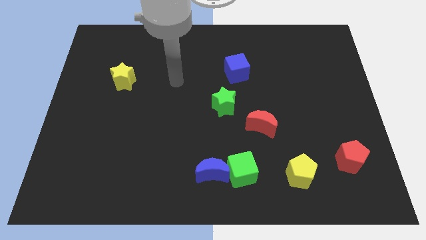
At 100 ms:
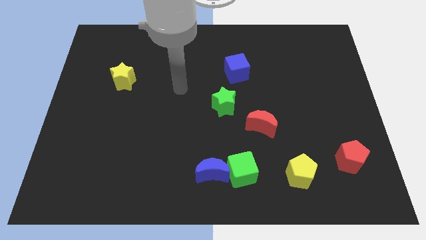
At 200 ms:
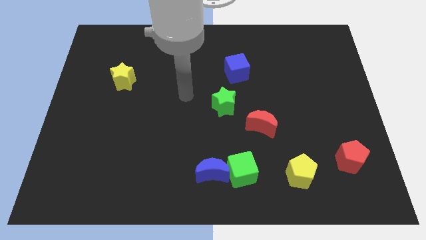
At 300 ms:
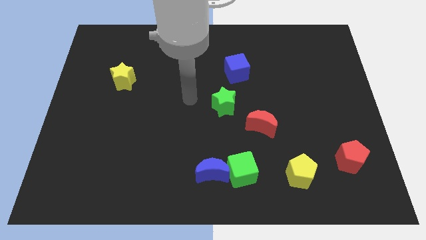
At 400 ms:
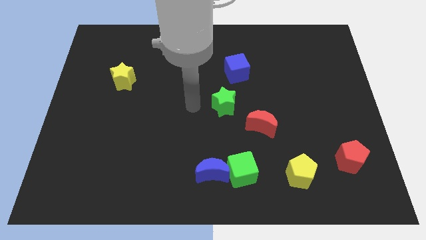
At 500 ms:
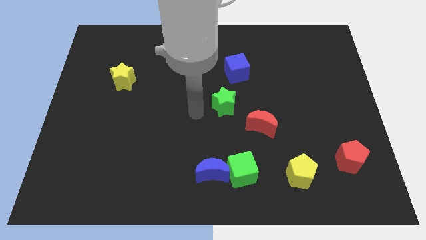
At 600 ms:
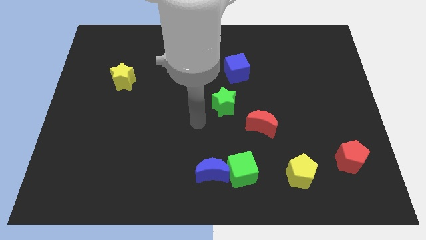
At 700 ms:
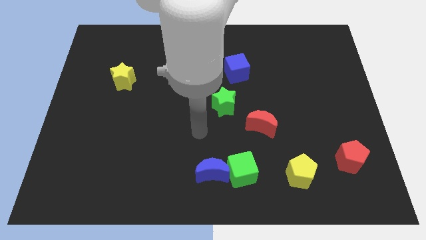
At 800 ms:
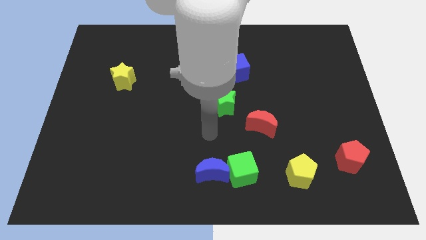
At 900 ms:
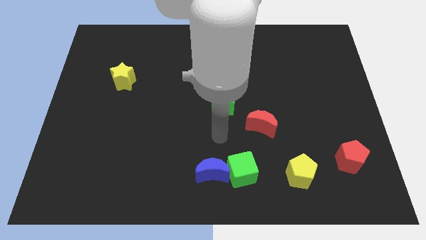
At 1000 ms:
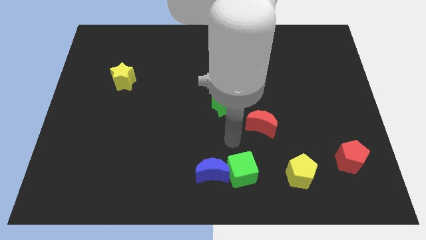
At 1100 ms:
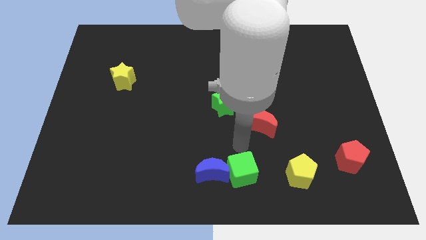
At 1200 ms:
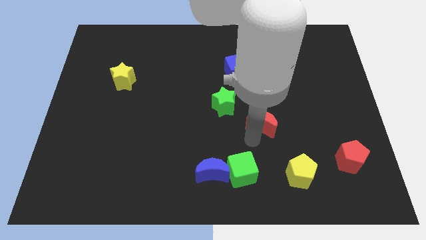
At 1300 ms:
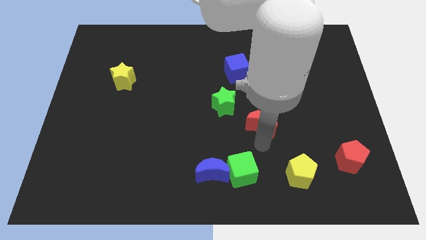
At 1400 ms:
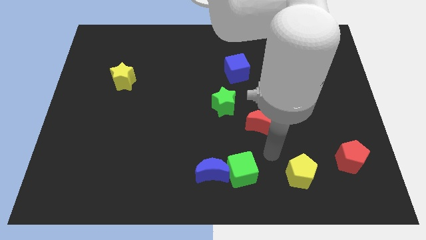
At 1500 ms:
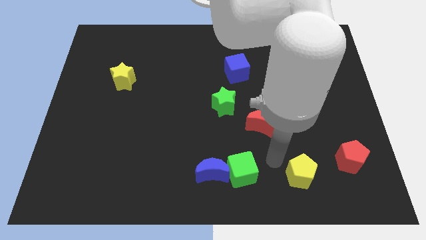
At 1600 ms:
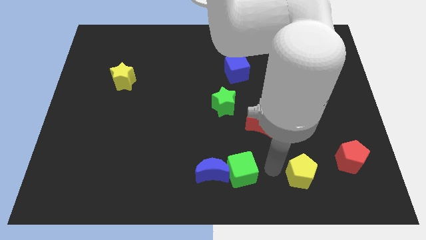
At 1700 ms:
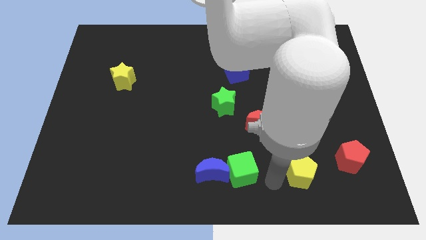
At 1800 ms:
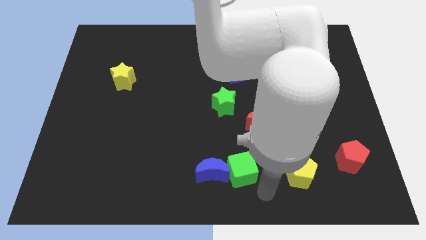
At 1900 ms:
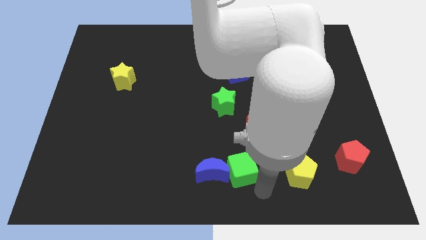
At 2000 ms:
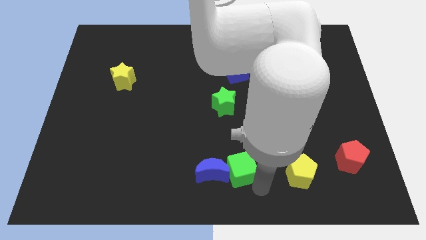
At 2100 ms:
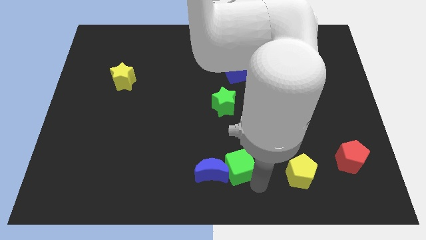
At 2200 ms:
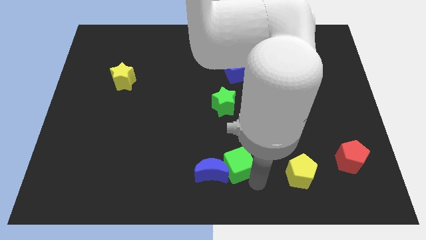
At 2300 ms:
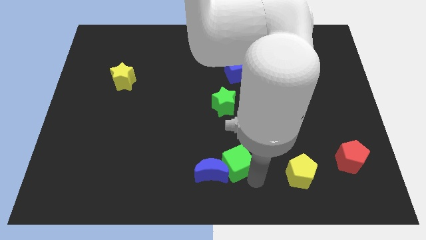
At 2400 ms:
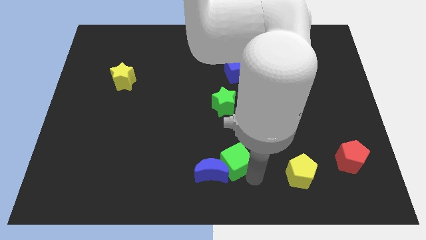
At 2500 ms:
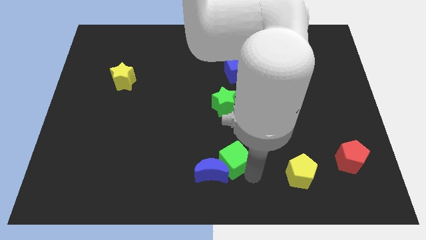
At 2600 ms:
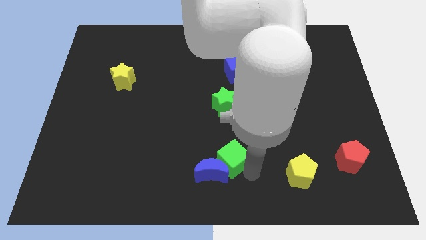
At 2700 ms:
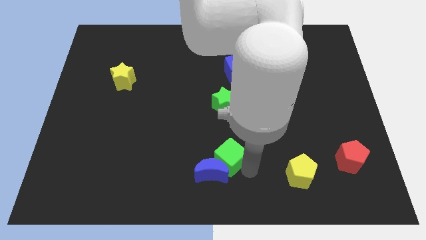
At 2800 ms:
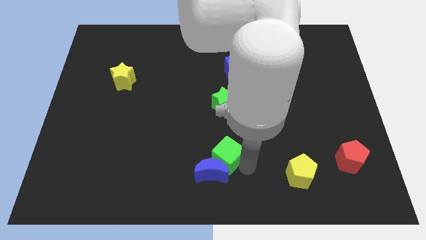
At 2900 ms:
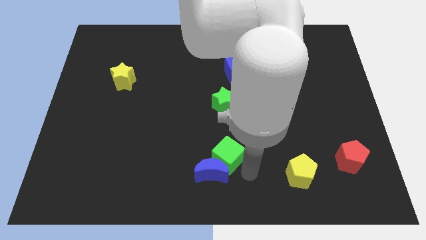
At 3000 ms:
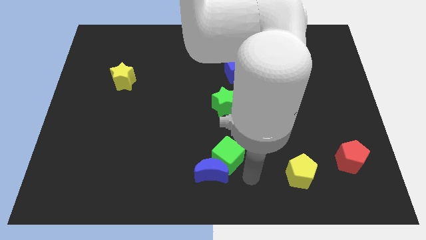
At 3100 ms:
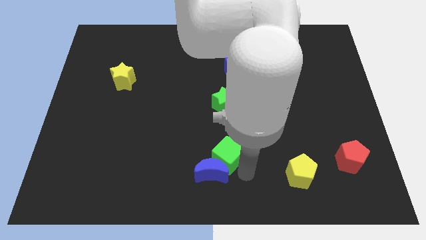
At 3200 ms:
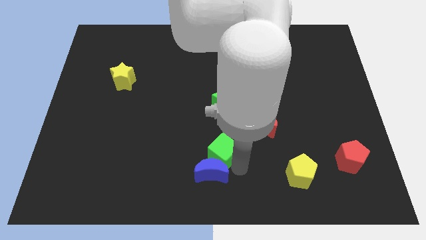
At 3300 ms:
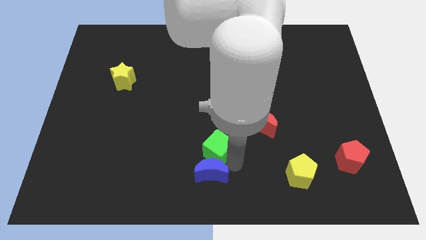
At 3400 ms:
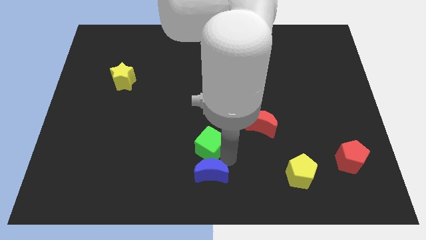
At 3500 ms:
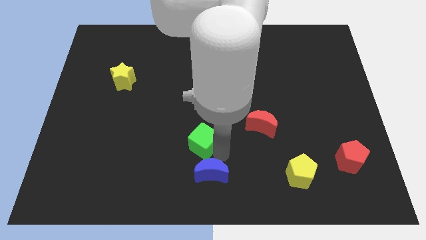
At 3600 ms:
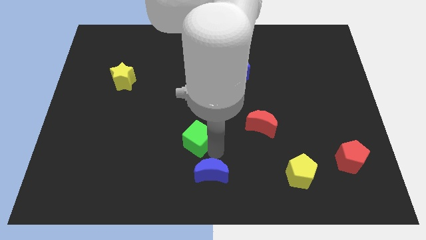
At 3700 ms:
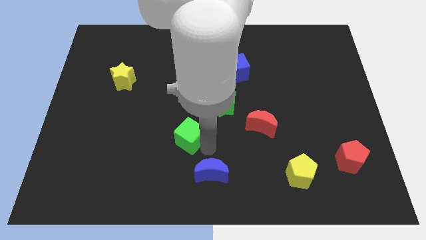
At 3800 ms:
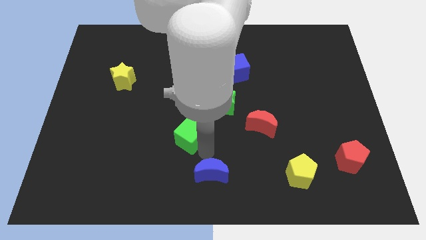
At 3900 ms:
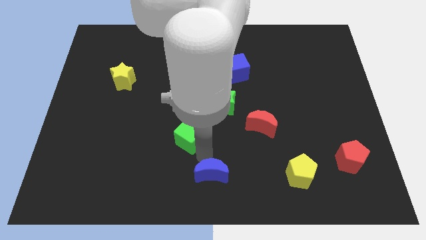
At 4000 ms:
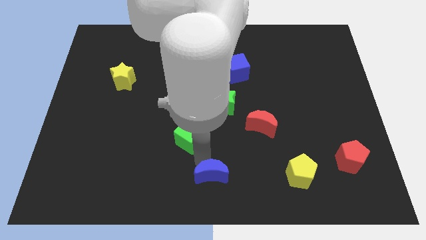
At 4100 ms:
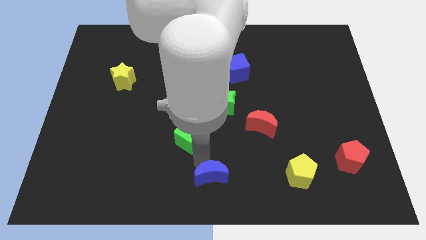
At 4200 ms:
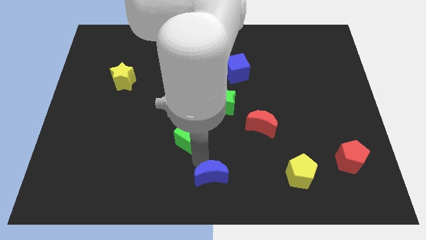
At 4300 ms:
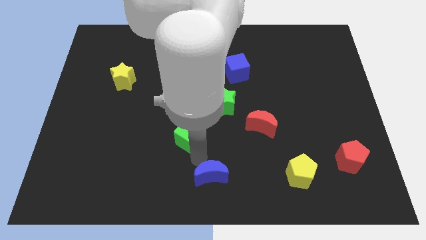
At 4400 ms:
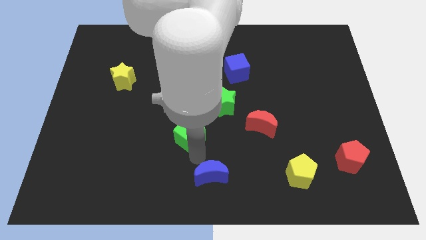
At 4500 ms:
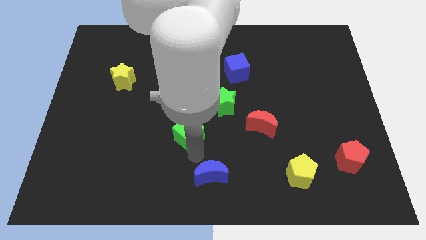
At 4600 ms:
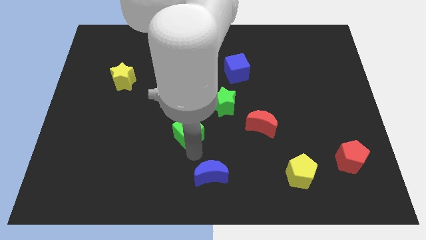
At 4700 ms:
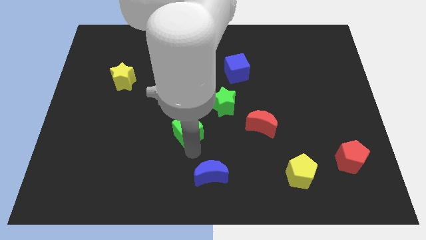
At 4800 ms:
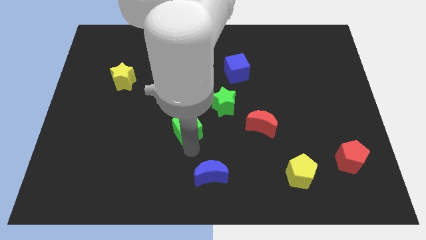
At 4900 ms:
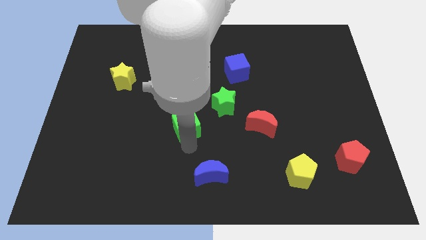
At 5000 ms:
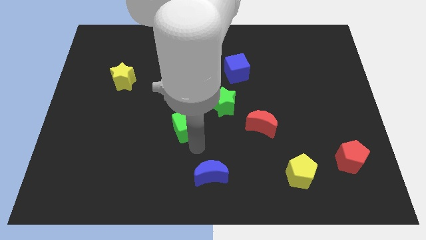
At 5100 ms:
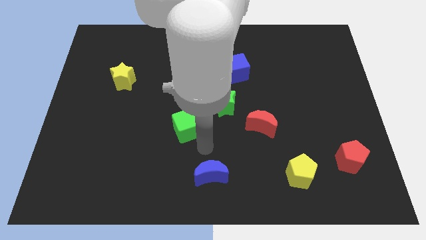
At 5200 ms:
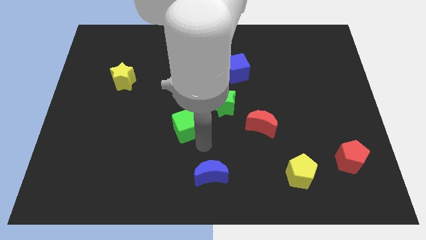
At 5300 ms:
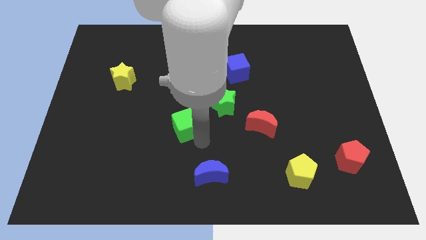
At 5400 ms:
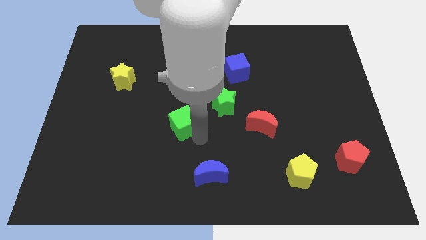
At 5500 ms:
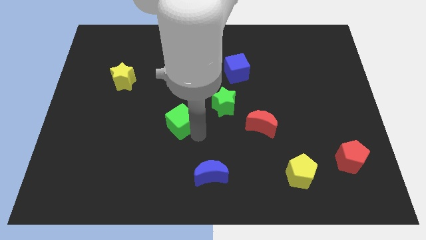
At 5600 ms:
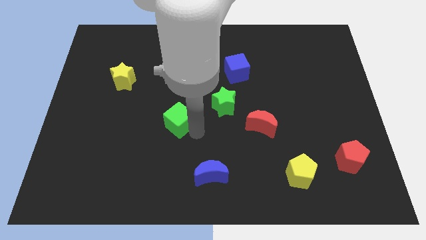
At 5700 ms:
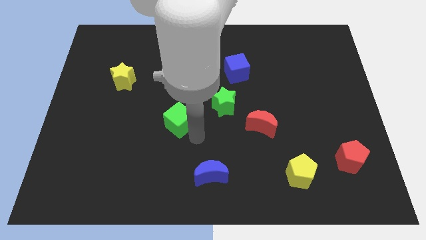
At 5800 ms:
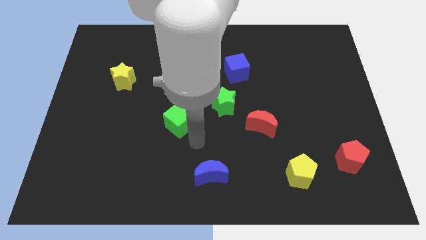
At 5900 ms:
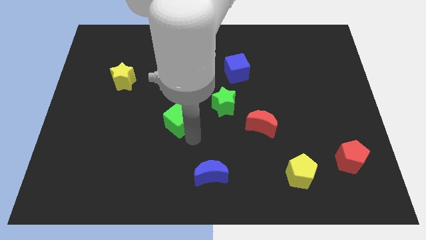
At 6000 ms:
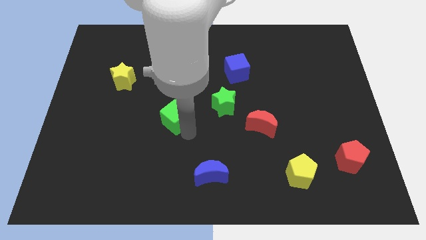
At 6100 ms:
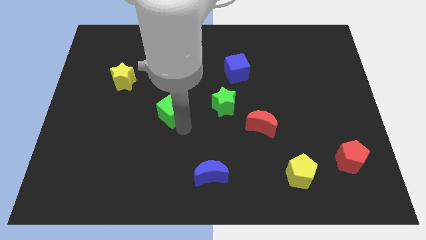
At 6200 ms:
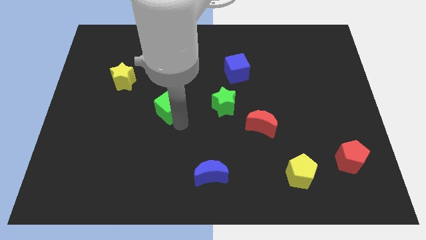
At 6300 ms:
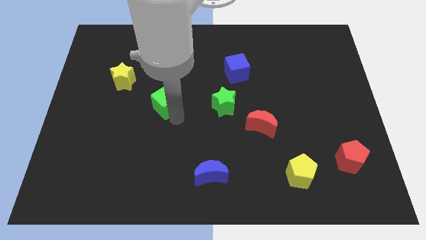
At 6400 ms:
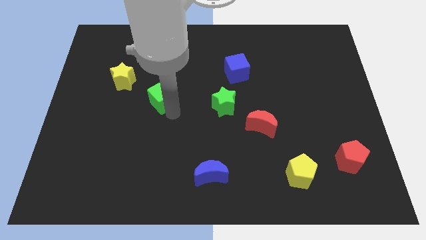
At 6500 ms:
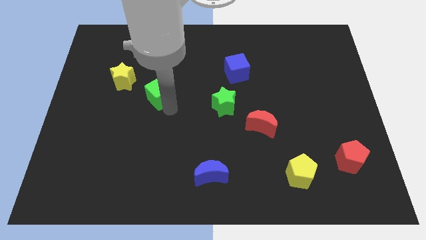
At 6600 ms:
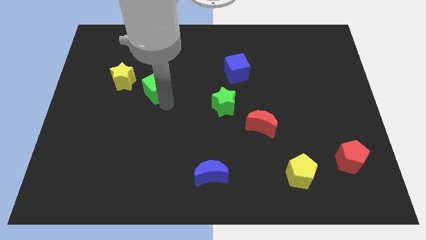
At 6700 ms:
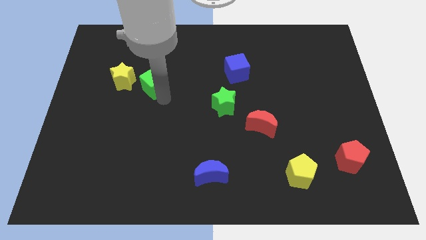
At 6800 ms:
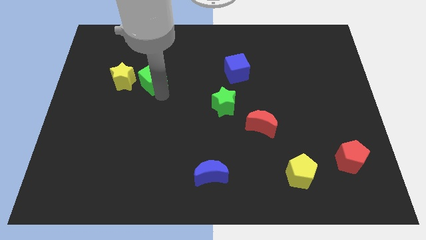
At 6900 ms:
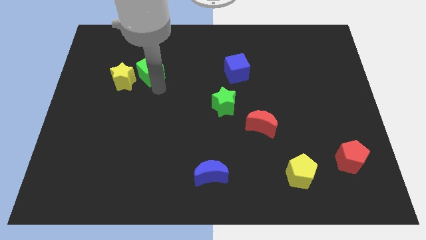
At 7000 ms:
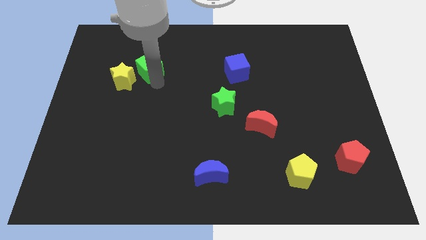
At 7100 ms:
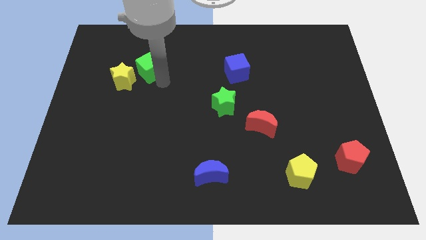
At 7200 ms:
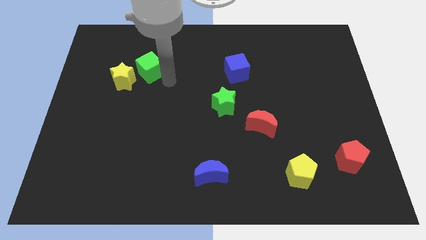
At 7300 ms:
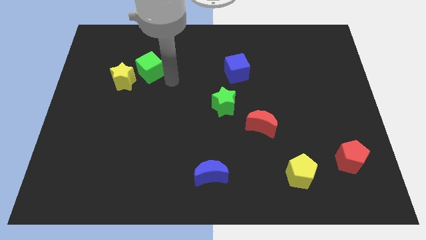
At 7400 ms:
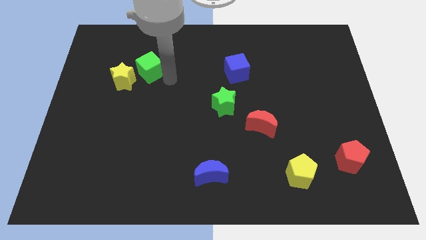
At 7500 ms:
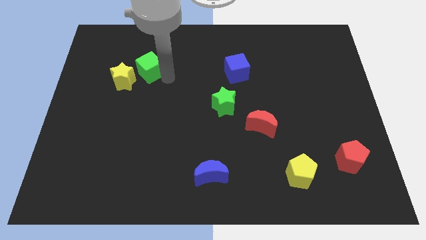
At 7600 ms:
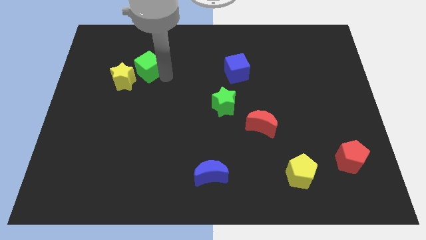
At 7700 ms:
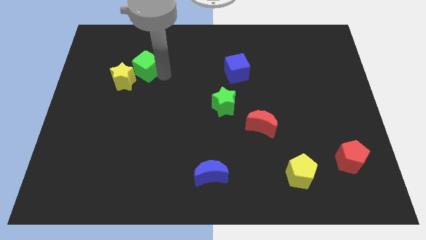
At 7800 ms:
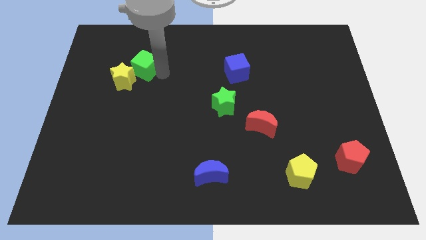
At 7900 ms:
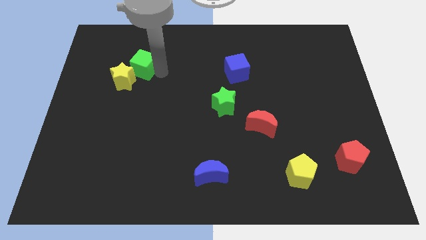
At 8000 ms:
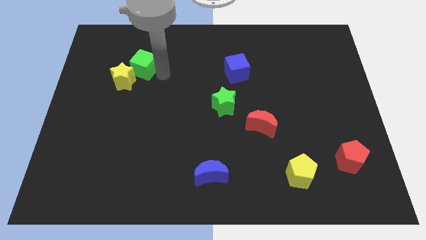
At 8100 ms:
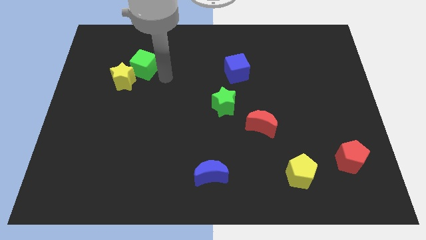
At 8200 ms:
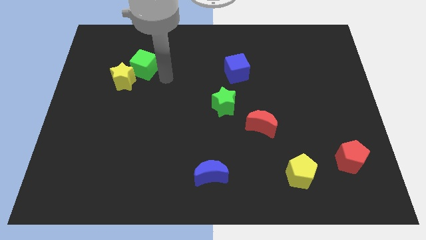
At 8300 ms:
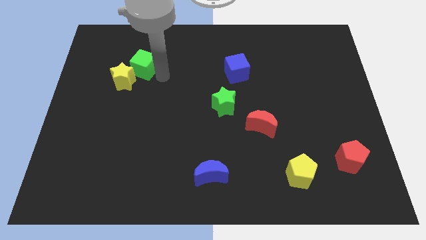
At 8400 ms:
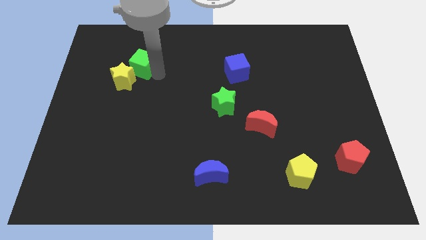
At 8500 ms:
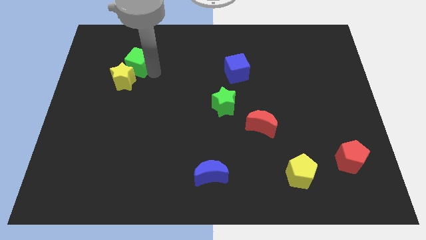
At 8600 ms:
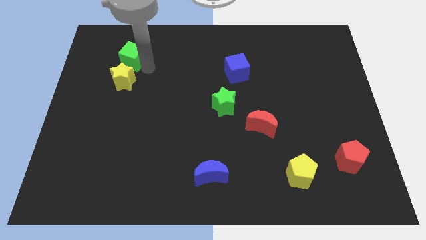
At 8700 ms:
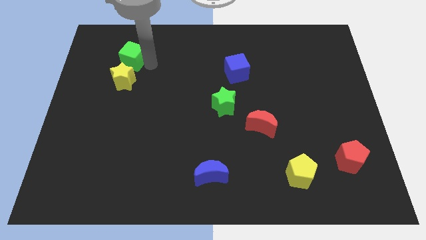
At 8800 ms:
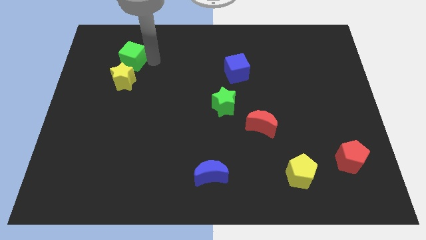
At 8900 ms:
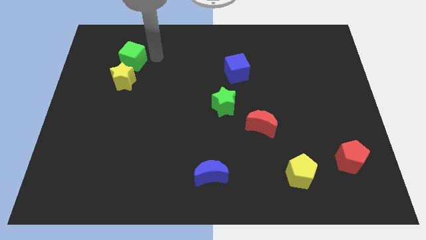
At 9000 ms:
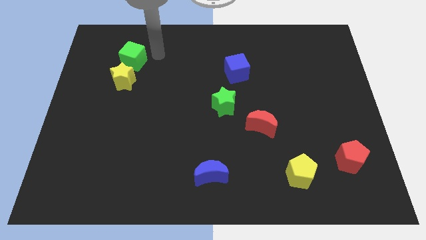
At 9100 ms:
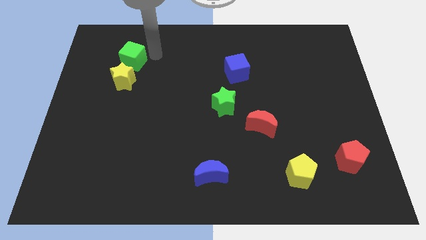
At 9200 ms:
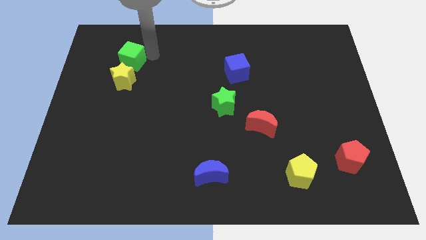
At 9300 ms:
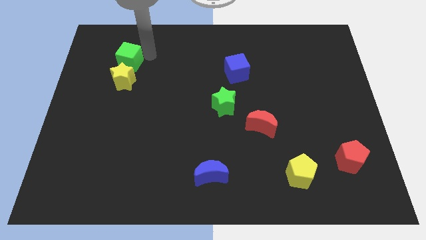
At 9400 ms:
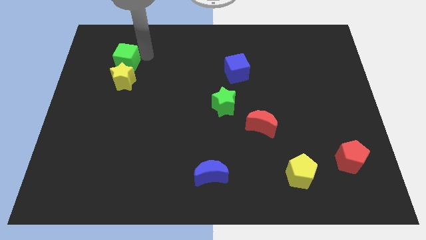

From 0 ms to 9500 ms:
put the green cube to the top left side of the yellow star
